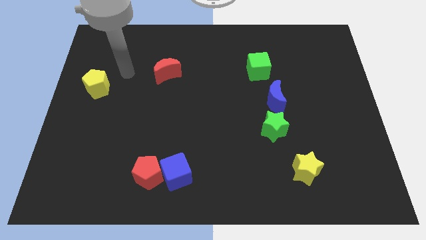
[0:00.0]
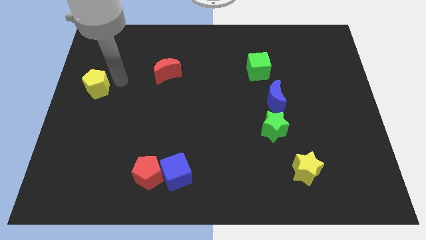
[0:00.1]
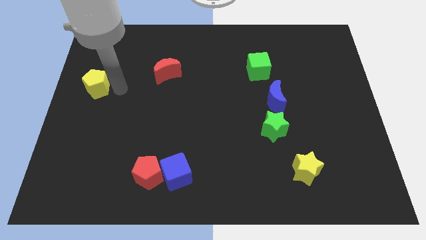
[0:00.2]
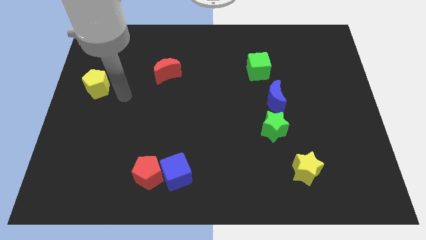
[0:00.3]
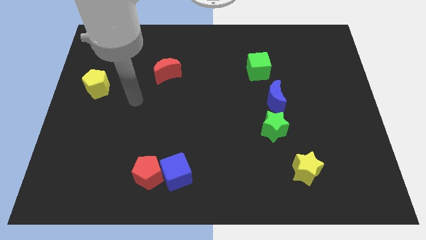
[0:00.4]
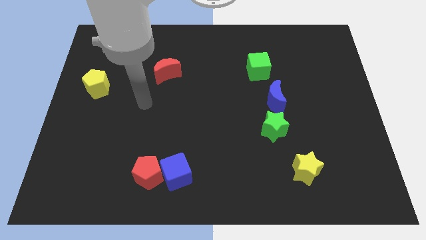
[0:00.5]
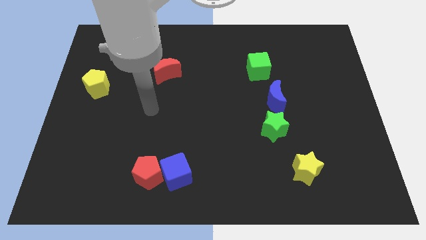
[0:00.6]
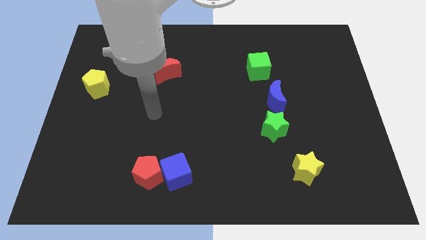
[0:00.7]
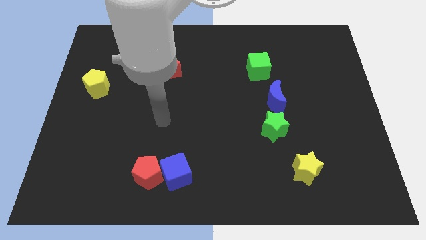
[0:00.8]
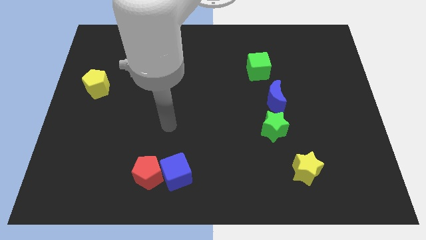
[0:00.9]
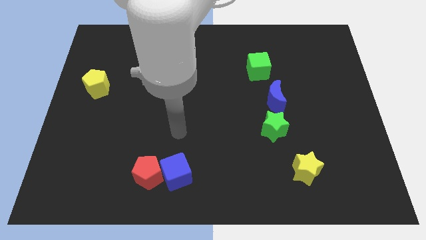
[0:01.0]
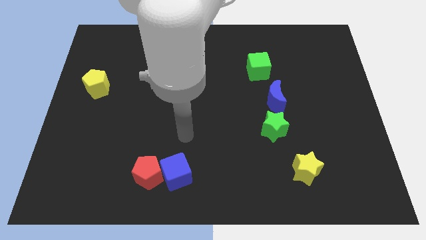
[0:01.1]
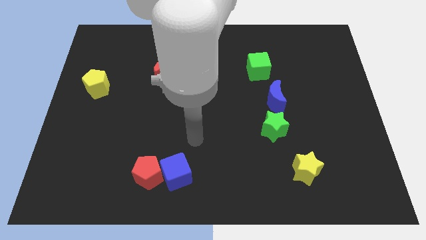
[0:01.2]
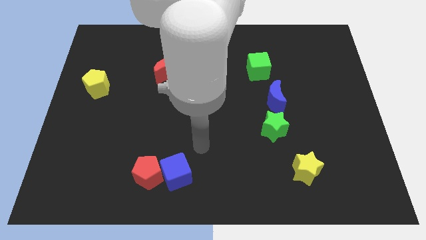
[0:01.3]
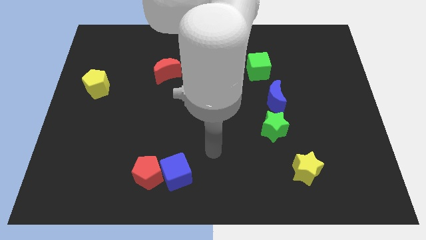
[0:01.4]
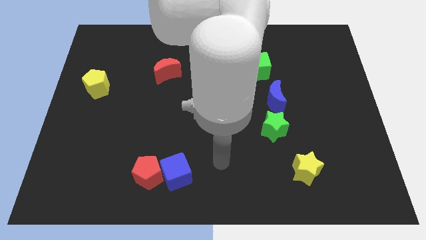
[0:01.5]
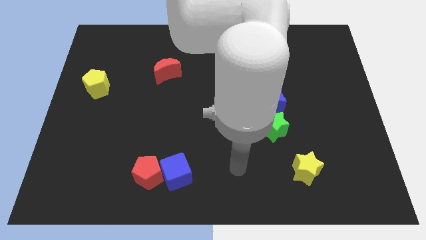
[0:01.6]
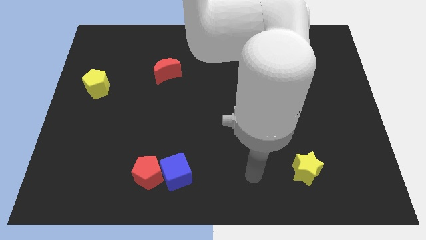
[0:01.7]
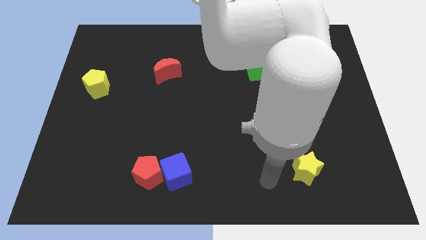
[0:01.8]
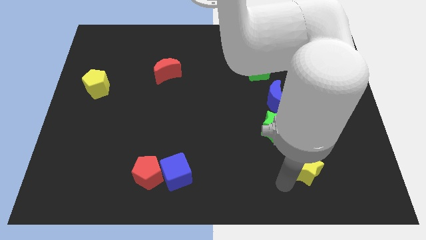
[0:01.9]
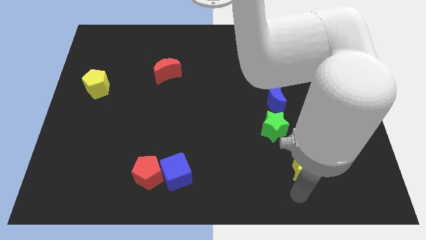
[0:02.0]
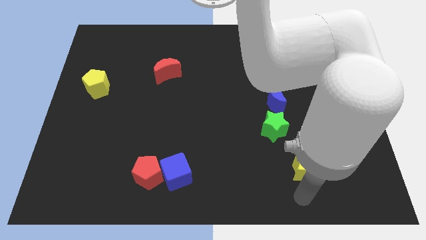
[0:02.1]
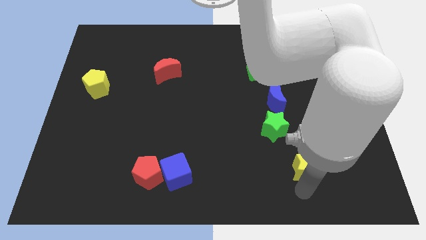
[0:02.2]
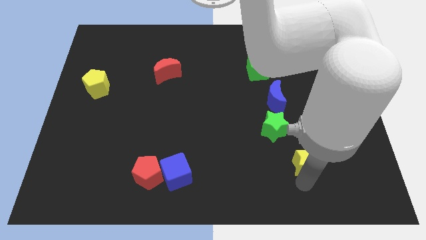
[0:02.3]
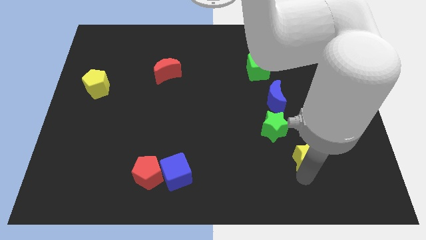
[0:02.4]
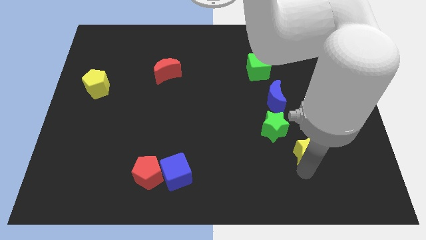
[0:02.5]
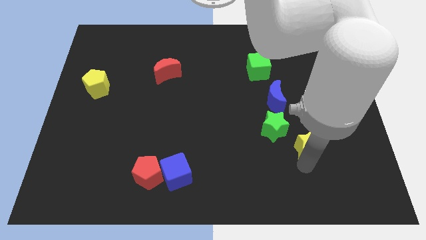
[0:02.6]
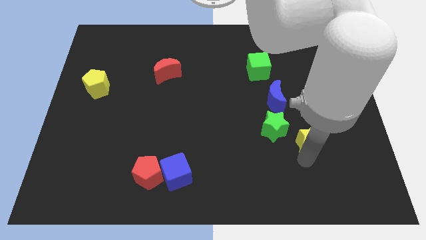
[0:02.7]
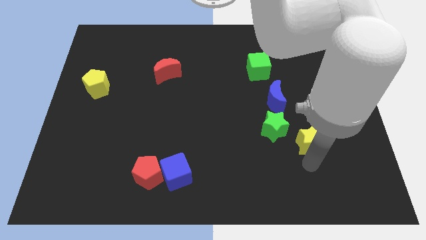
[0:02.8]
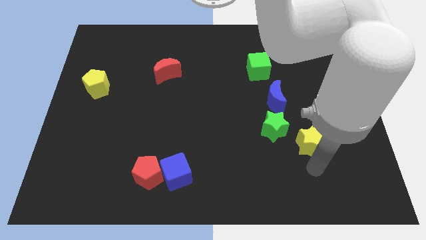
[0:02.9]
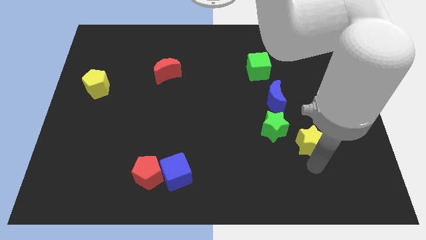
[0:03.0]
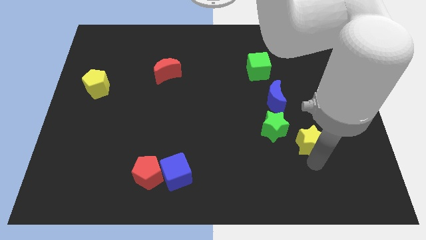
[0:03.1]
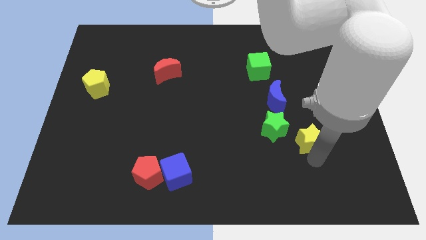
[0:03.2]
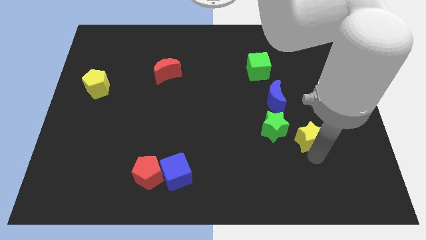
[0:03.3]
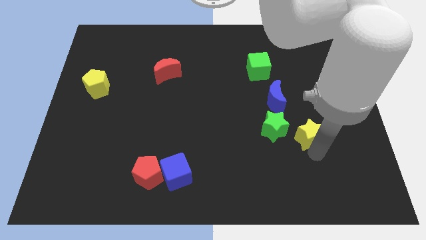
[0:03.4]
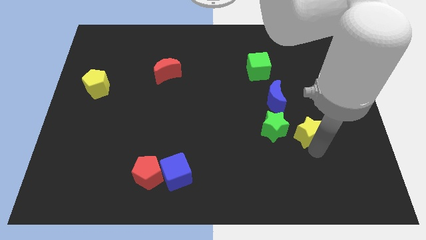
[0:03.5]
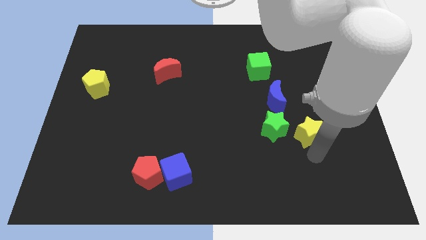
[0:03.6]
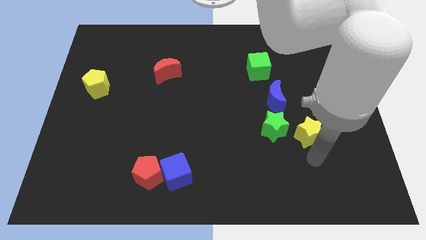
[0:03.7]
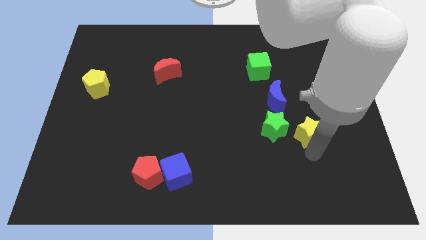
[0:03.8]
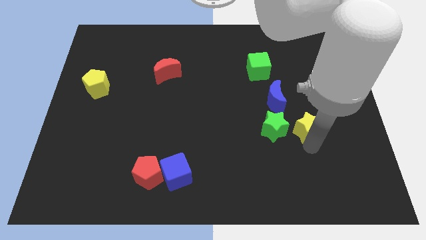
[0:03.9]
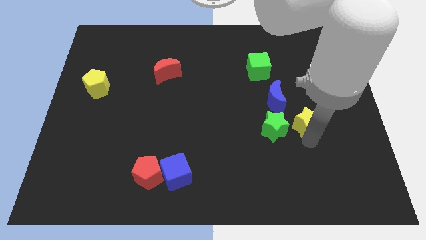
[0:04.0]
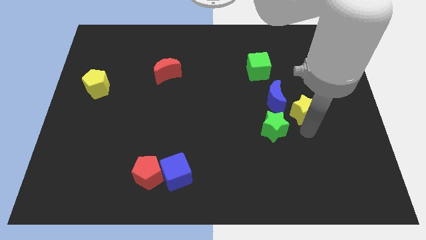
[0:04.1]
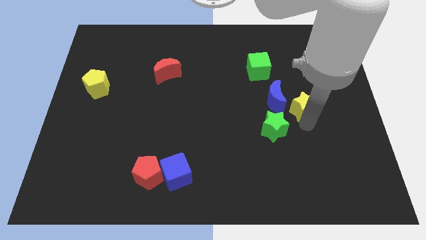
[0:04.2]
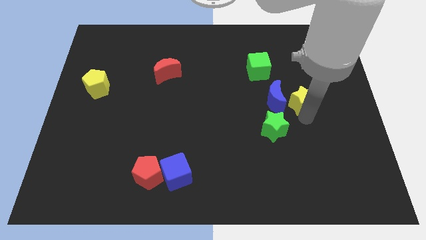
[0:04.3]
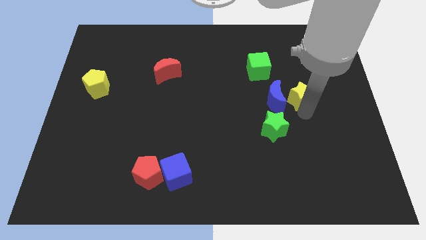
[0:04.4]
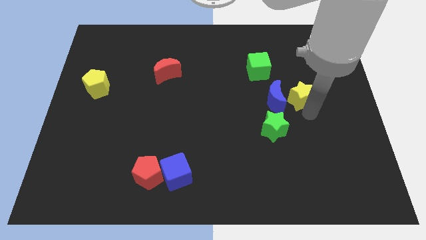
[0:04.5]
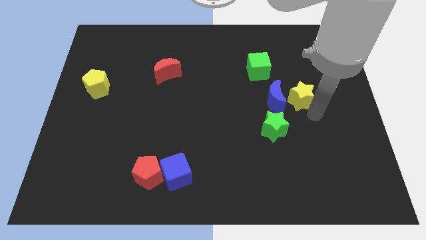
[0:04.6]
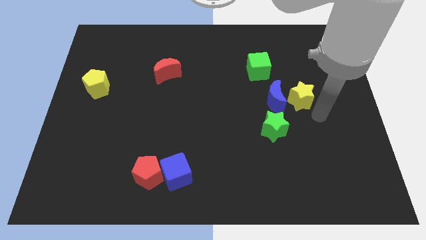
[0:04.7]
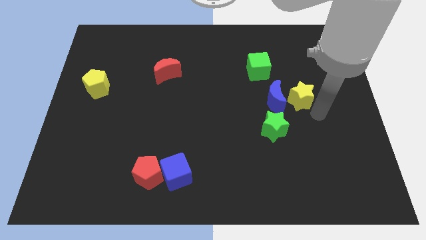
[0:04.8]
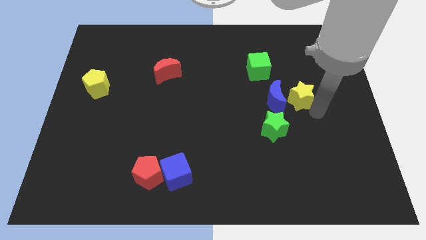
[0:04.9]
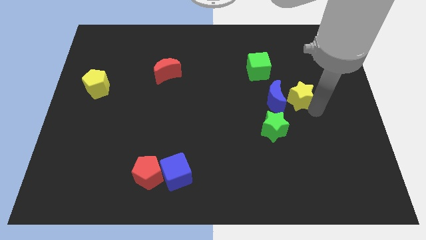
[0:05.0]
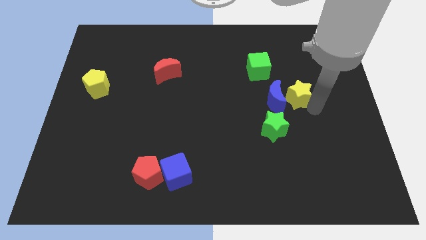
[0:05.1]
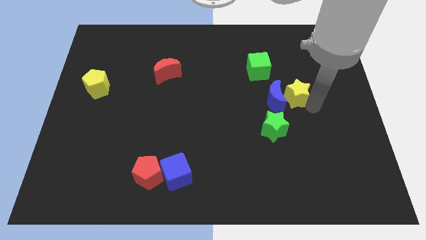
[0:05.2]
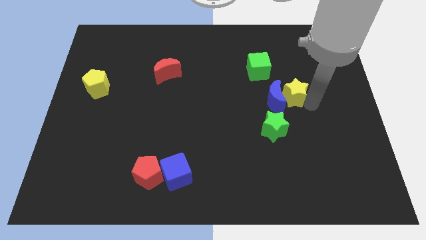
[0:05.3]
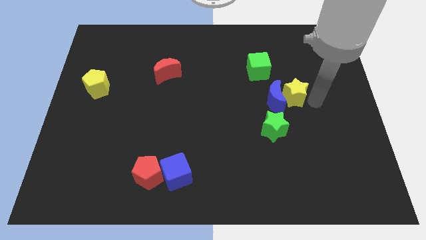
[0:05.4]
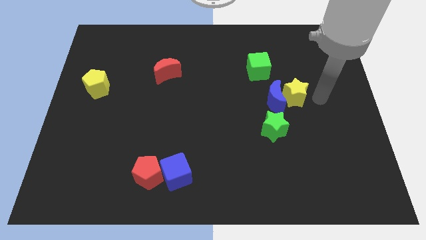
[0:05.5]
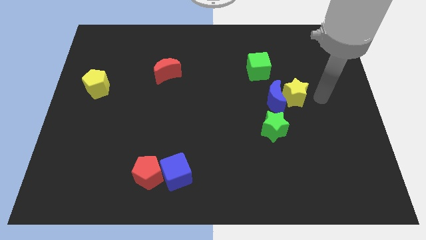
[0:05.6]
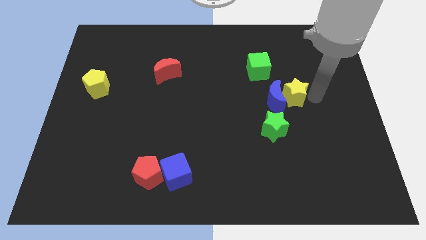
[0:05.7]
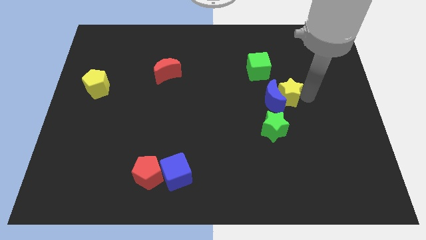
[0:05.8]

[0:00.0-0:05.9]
move the yellow star to the top side of the green star
